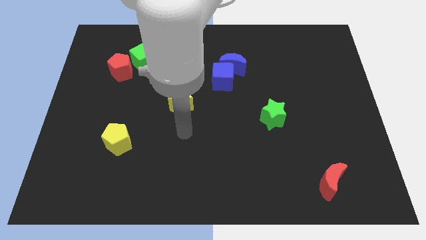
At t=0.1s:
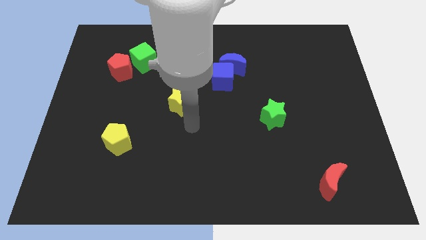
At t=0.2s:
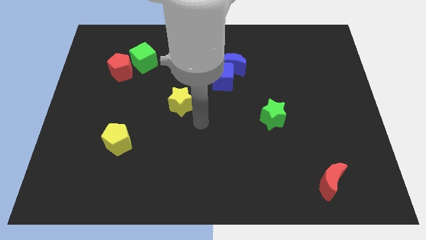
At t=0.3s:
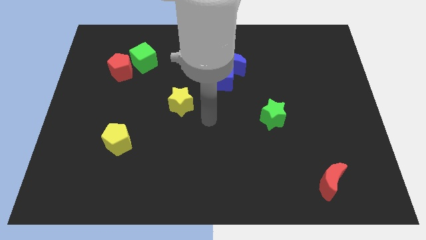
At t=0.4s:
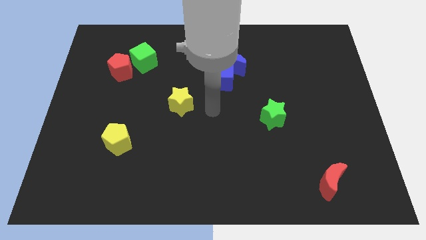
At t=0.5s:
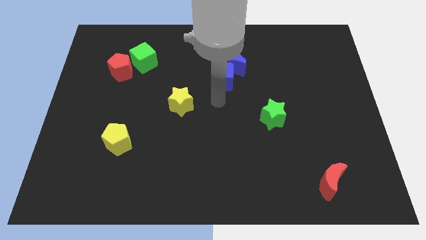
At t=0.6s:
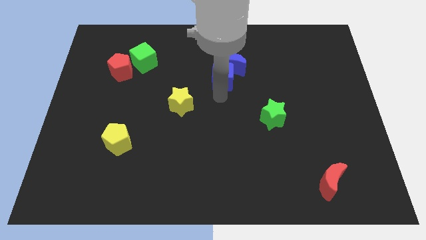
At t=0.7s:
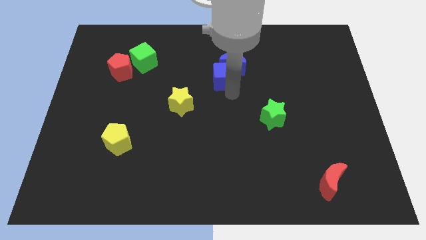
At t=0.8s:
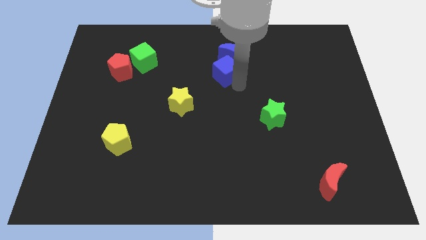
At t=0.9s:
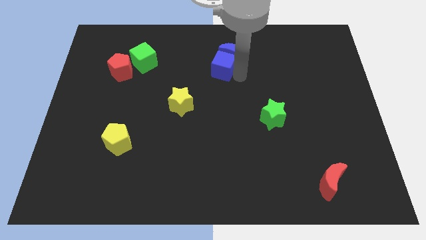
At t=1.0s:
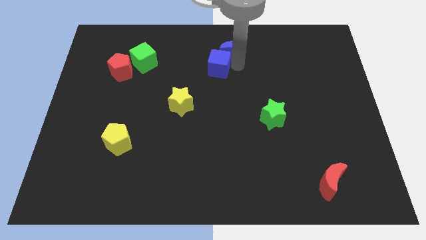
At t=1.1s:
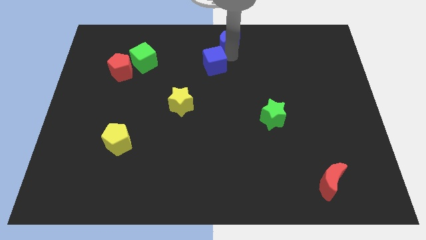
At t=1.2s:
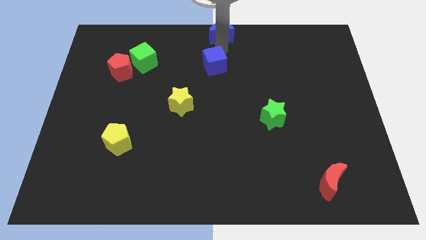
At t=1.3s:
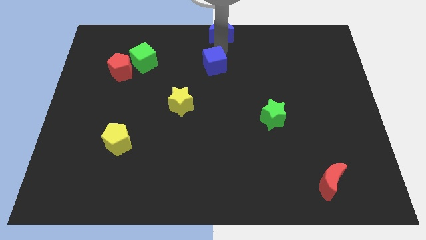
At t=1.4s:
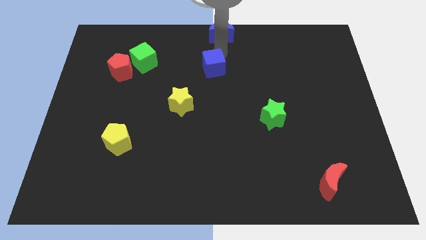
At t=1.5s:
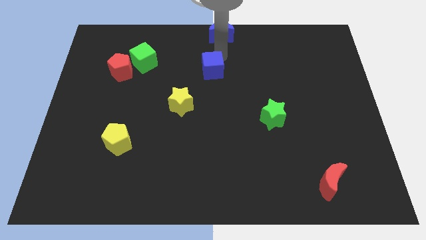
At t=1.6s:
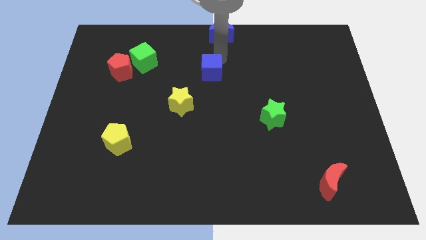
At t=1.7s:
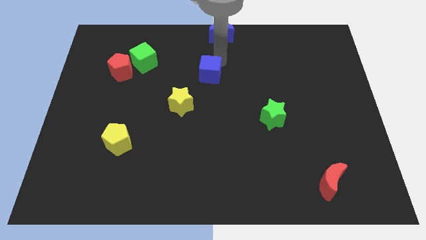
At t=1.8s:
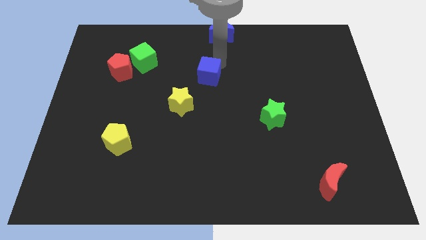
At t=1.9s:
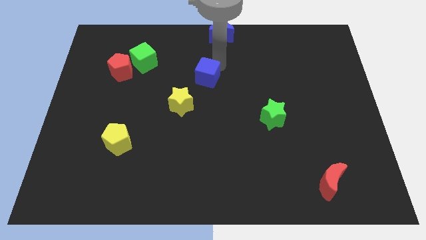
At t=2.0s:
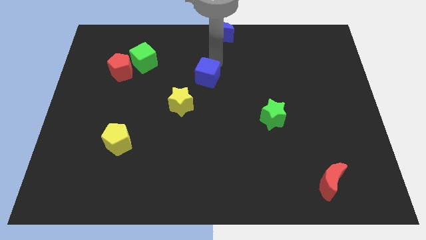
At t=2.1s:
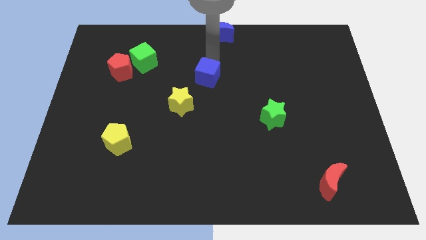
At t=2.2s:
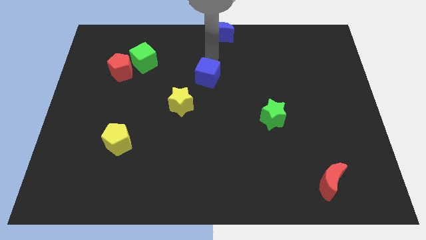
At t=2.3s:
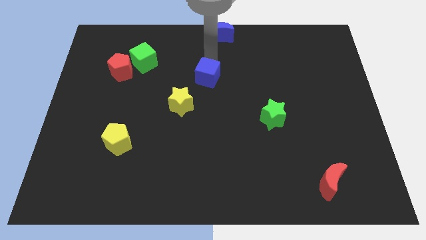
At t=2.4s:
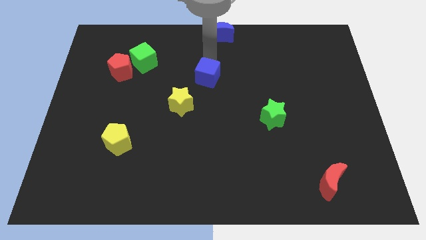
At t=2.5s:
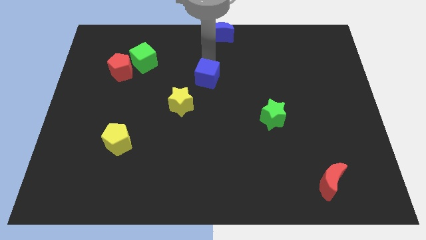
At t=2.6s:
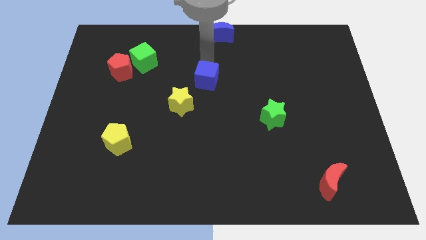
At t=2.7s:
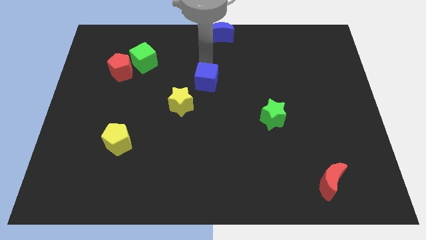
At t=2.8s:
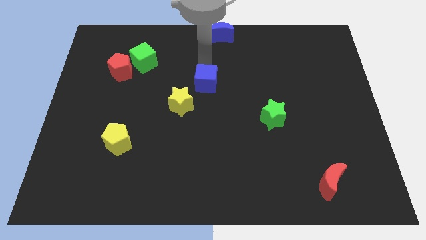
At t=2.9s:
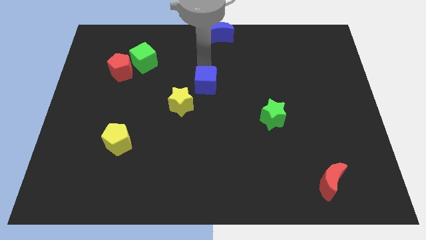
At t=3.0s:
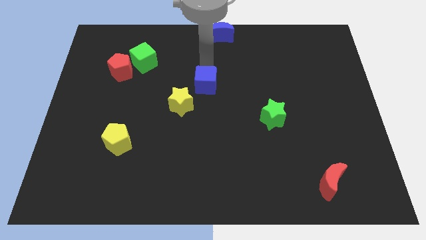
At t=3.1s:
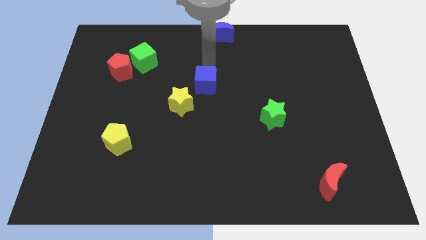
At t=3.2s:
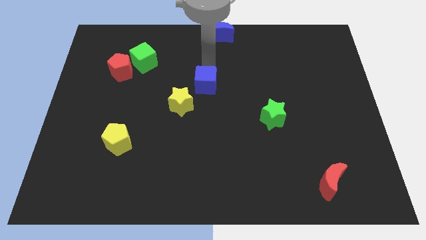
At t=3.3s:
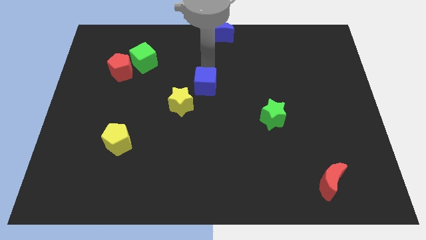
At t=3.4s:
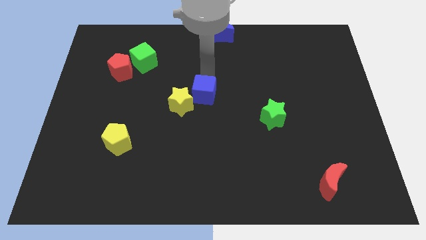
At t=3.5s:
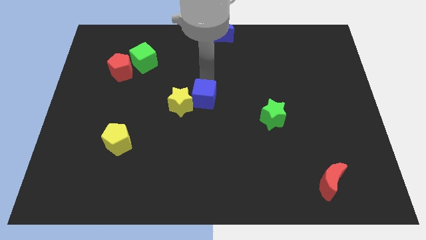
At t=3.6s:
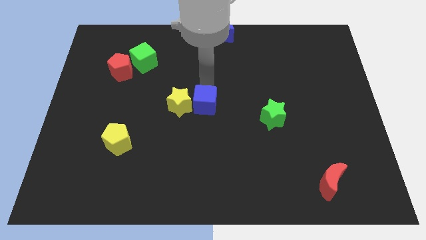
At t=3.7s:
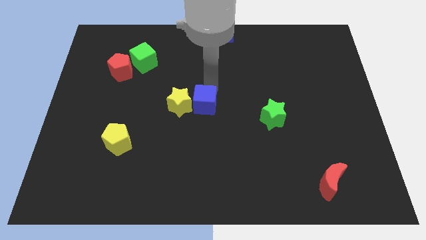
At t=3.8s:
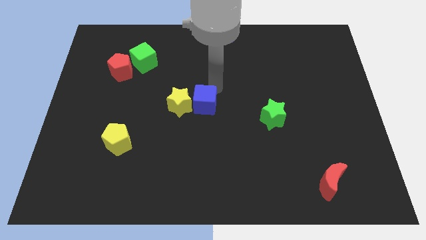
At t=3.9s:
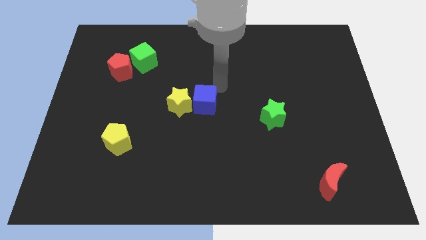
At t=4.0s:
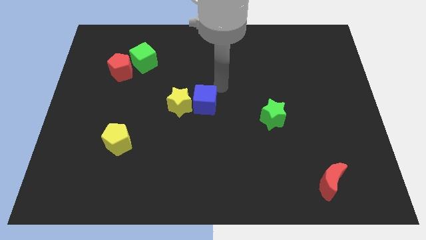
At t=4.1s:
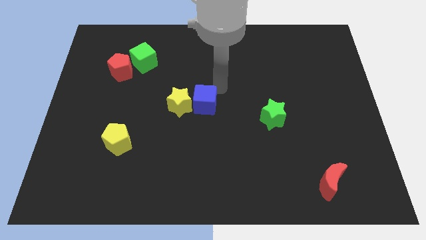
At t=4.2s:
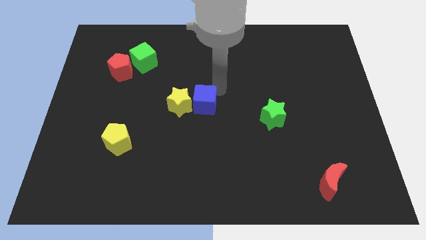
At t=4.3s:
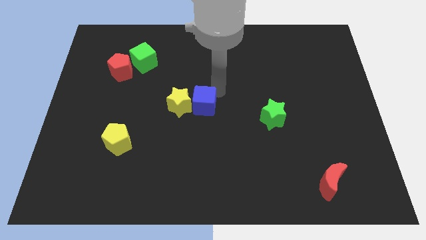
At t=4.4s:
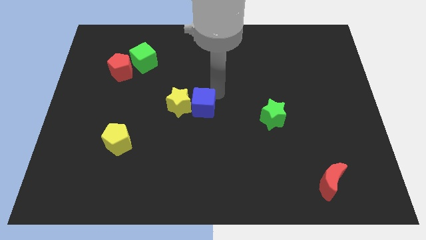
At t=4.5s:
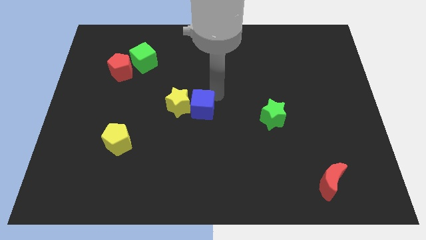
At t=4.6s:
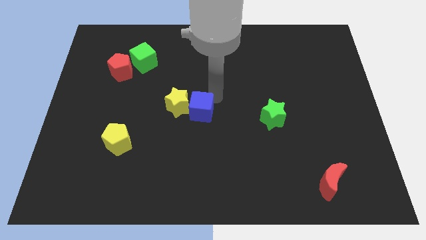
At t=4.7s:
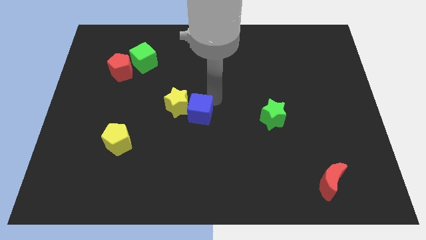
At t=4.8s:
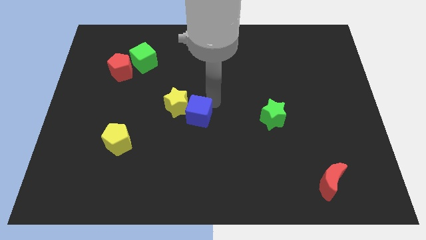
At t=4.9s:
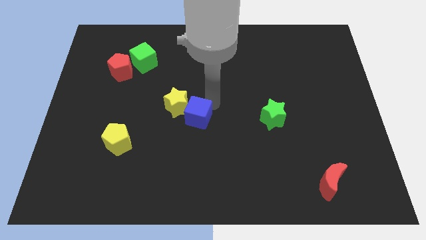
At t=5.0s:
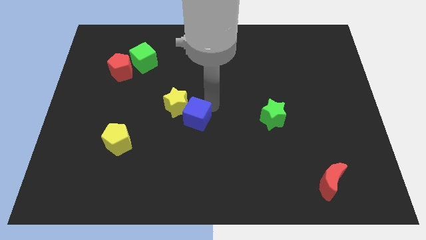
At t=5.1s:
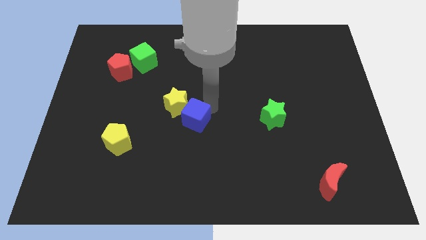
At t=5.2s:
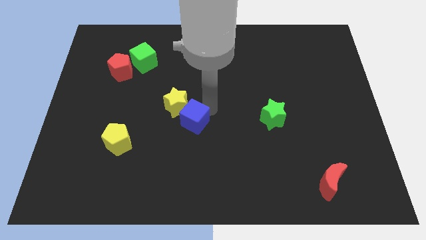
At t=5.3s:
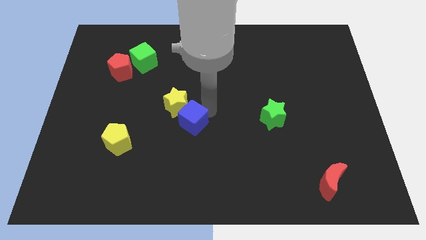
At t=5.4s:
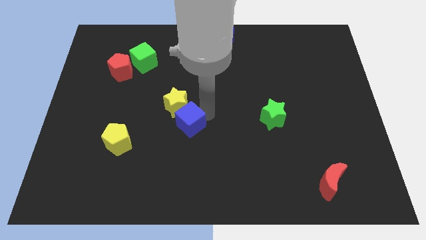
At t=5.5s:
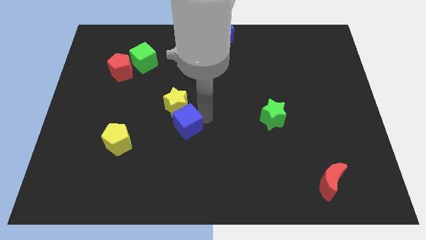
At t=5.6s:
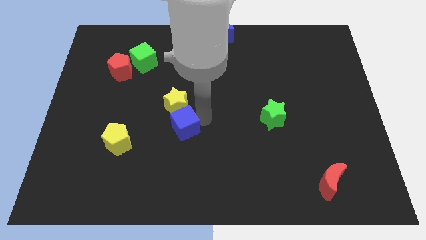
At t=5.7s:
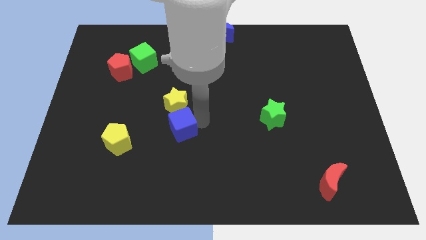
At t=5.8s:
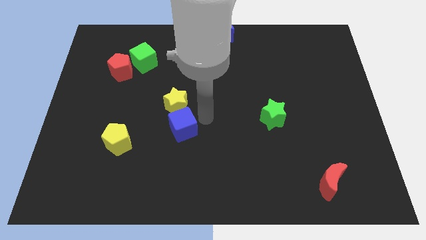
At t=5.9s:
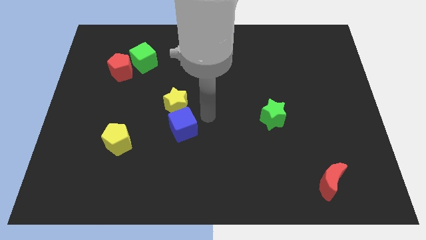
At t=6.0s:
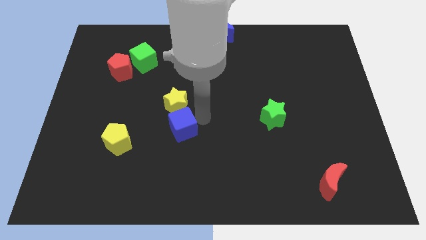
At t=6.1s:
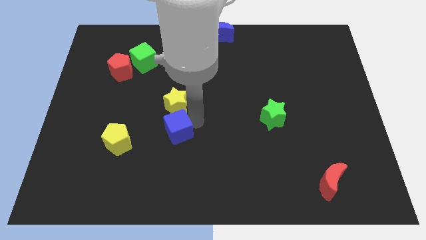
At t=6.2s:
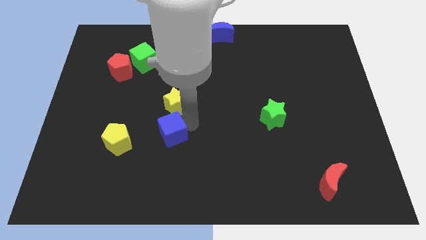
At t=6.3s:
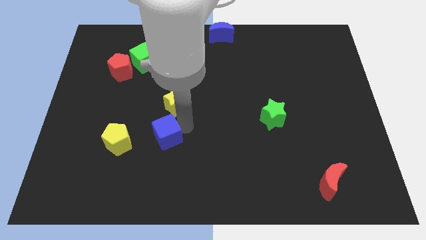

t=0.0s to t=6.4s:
slide the blue cube down and to the left diagonally

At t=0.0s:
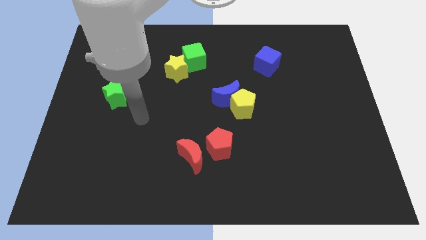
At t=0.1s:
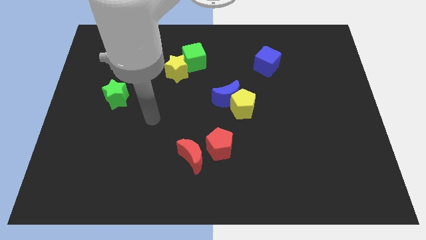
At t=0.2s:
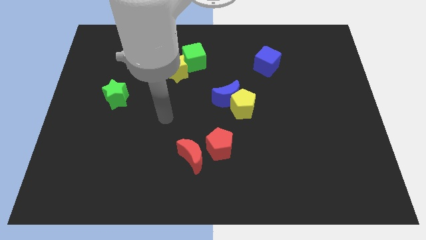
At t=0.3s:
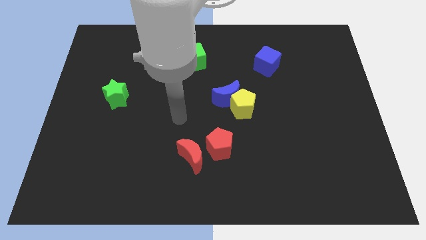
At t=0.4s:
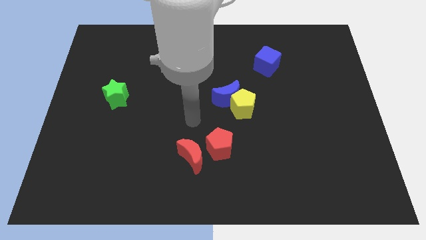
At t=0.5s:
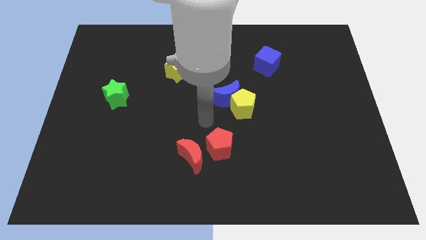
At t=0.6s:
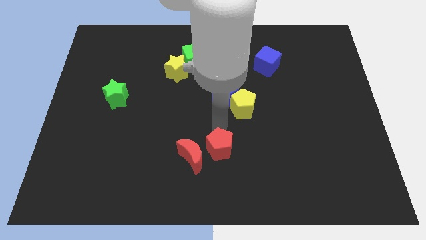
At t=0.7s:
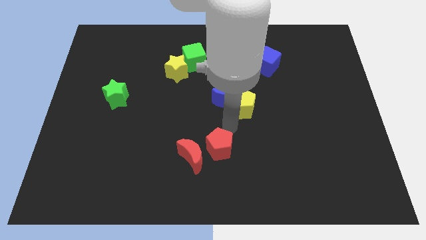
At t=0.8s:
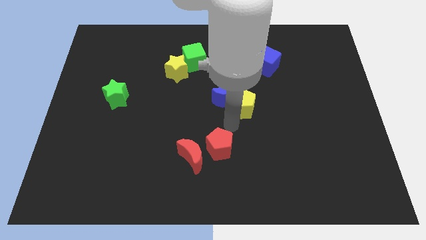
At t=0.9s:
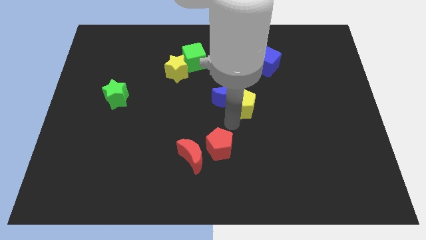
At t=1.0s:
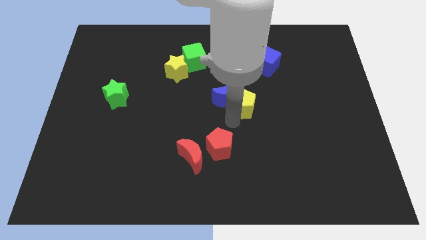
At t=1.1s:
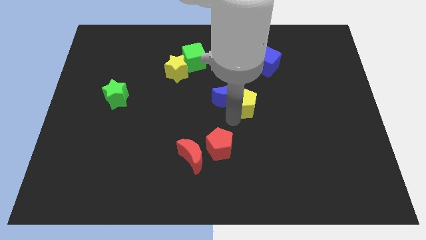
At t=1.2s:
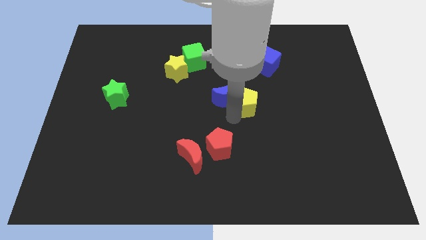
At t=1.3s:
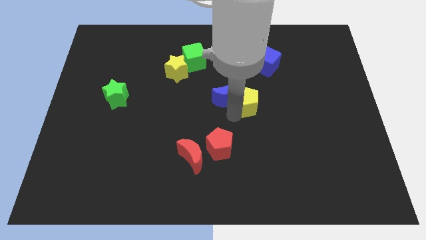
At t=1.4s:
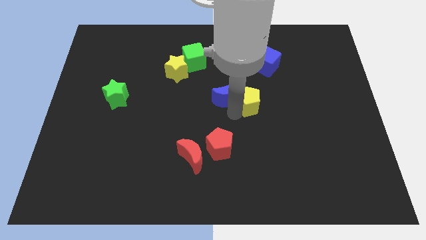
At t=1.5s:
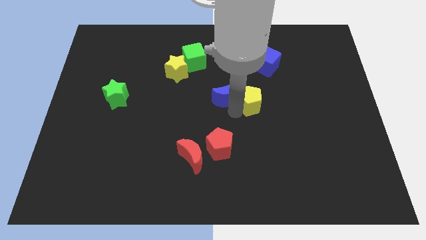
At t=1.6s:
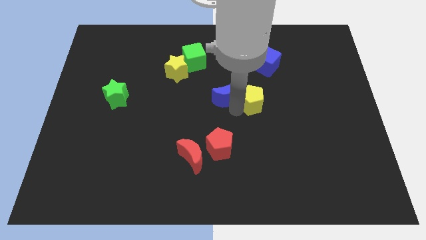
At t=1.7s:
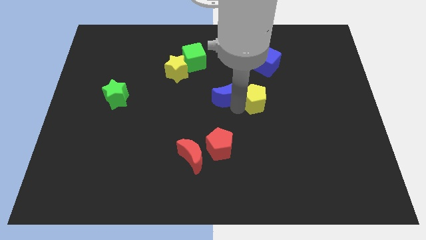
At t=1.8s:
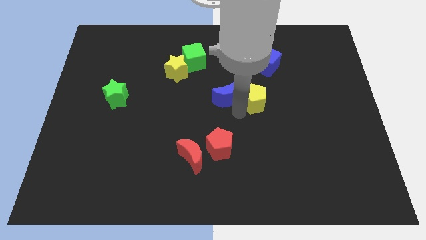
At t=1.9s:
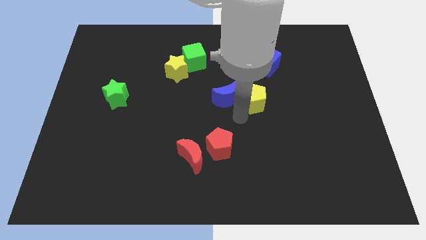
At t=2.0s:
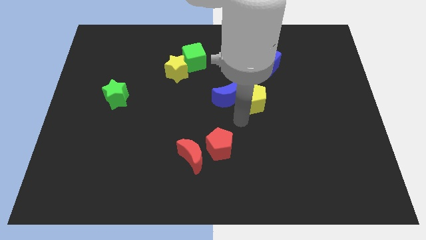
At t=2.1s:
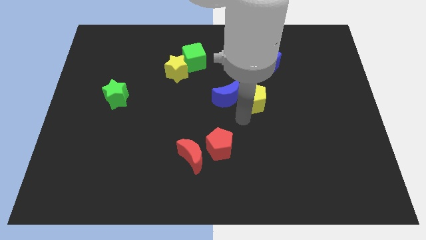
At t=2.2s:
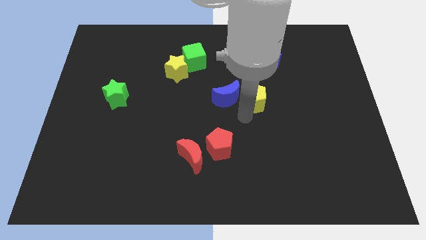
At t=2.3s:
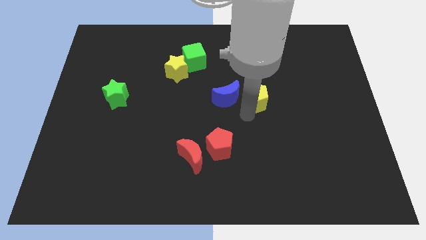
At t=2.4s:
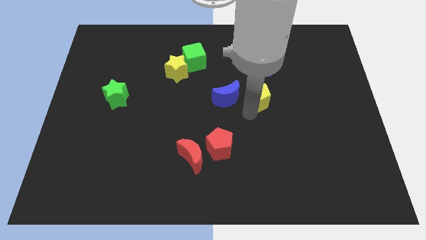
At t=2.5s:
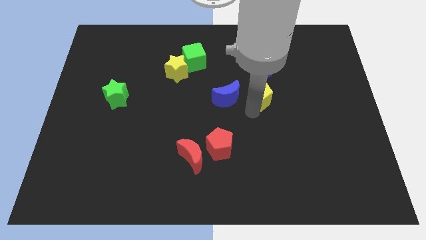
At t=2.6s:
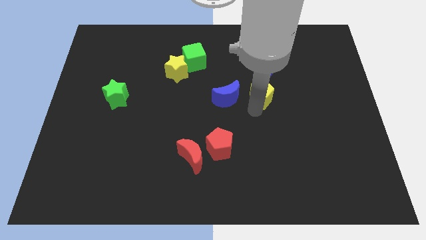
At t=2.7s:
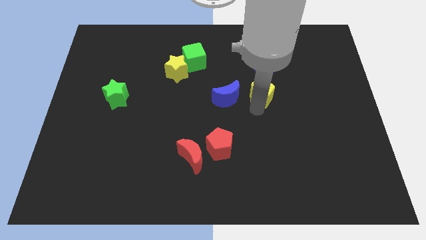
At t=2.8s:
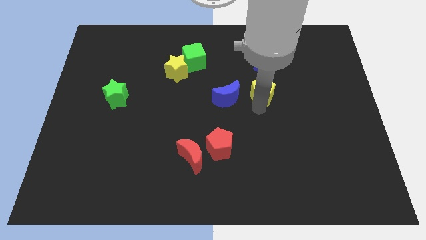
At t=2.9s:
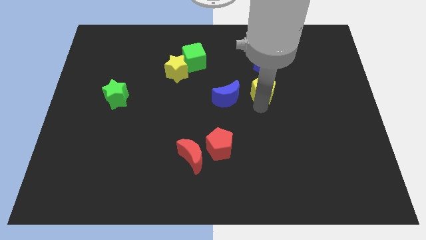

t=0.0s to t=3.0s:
slide the yellow pentagon a bit upwards and to the right diagonally
